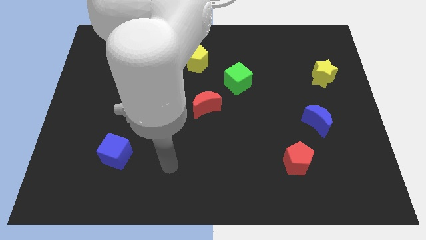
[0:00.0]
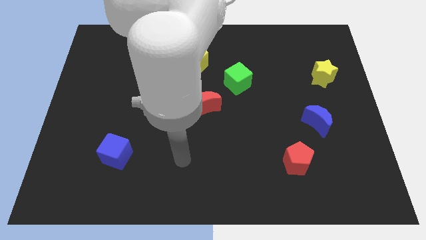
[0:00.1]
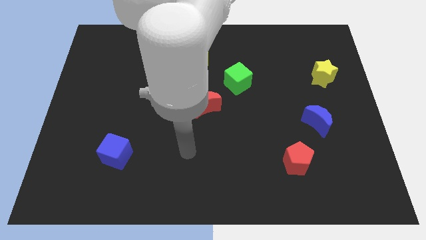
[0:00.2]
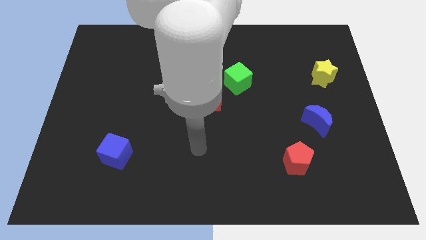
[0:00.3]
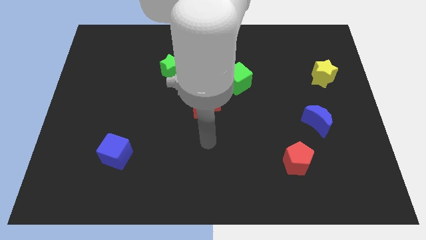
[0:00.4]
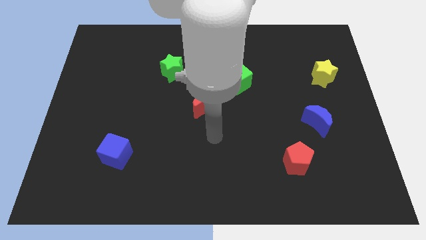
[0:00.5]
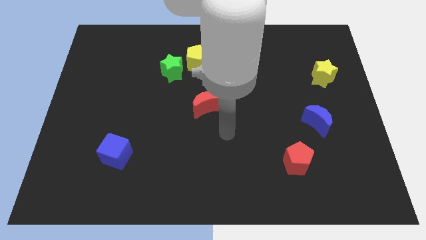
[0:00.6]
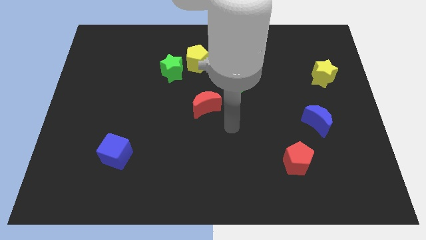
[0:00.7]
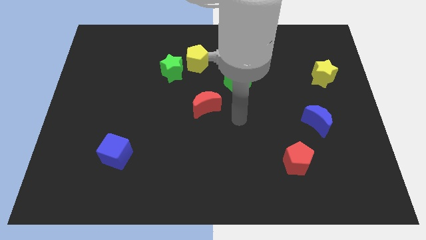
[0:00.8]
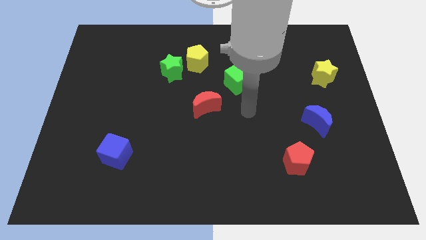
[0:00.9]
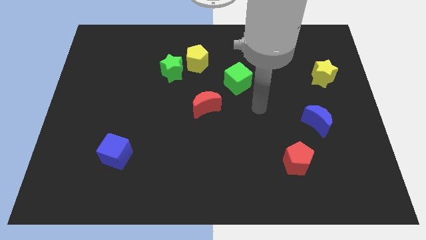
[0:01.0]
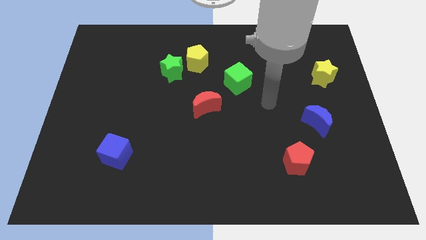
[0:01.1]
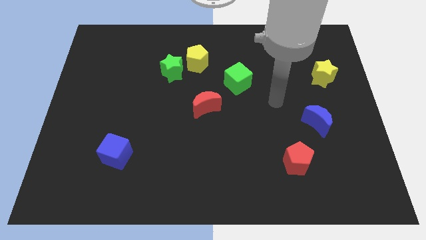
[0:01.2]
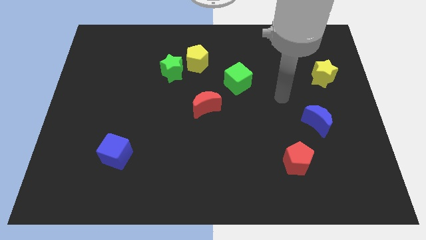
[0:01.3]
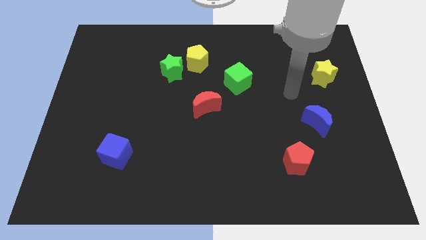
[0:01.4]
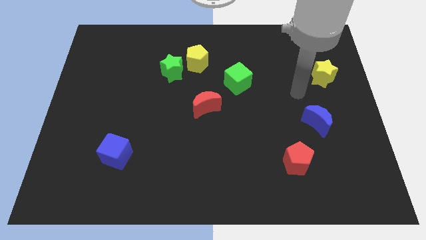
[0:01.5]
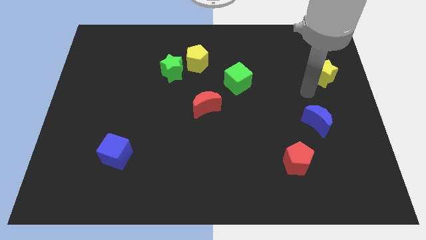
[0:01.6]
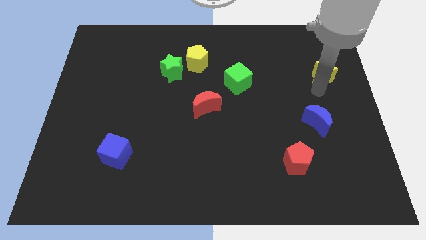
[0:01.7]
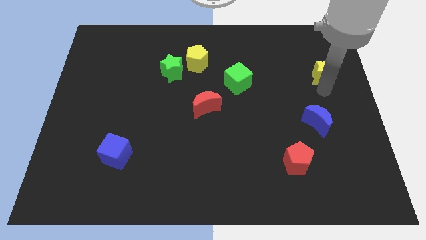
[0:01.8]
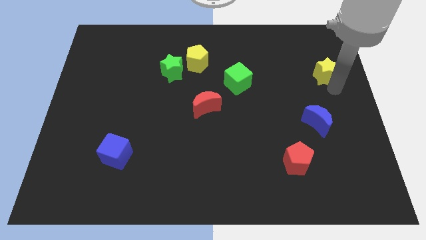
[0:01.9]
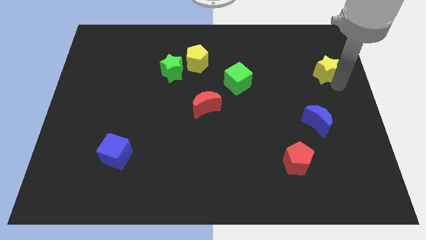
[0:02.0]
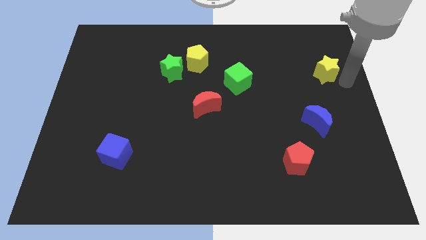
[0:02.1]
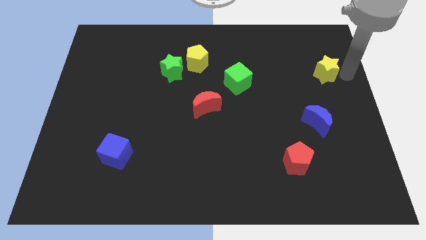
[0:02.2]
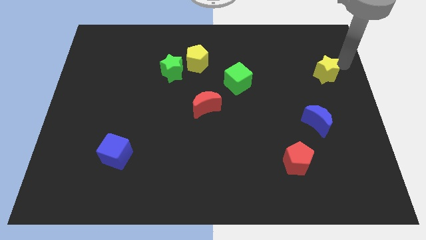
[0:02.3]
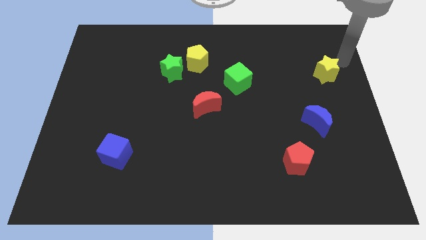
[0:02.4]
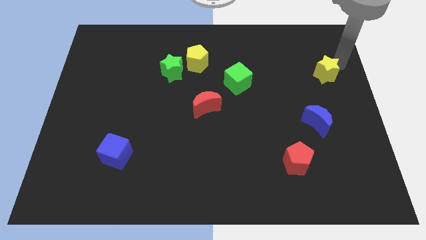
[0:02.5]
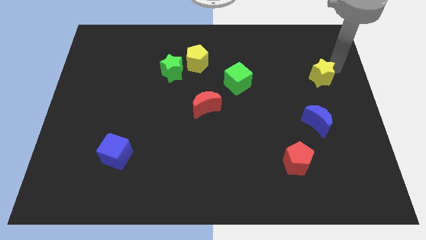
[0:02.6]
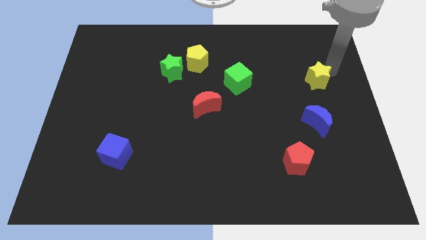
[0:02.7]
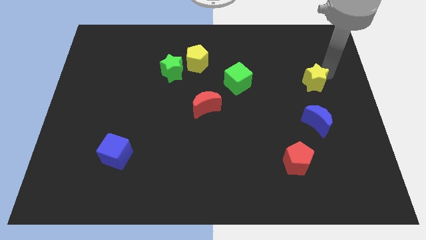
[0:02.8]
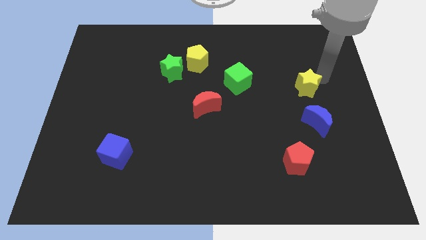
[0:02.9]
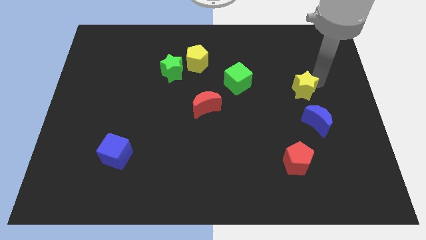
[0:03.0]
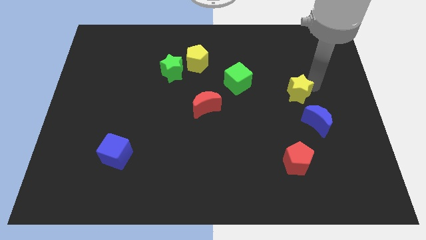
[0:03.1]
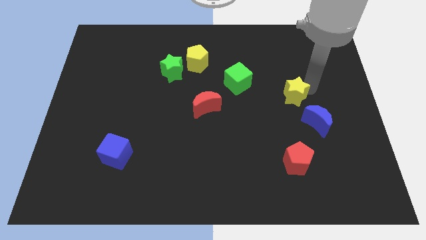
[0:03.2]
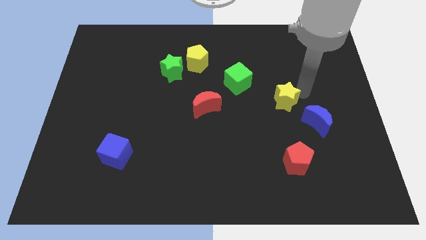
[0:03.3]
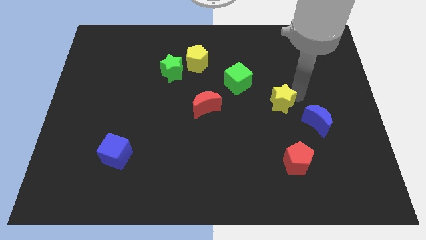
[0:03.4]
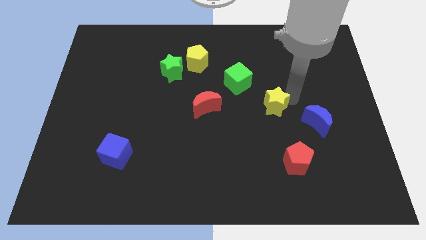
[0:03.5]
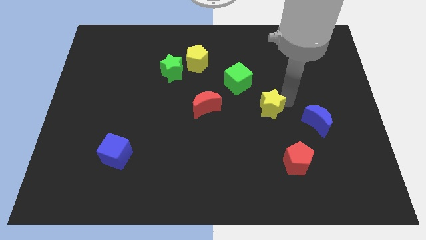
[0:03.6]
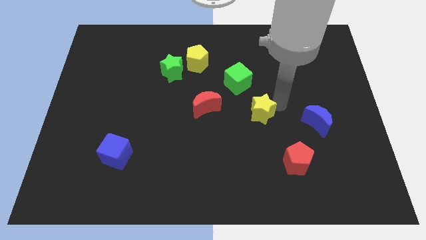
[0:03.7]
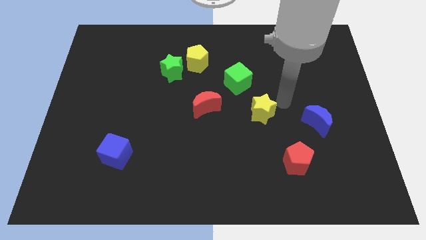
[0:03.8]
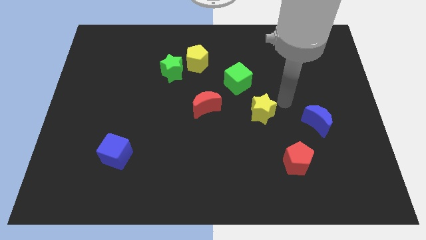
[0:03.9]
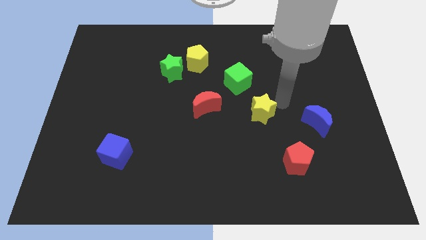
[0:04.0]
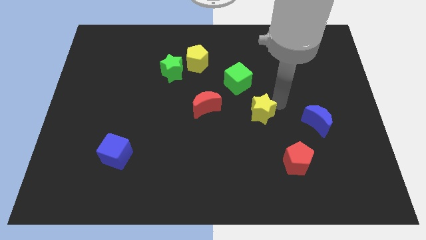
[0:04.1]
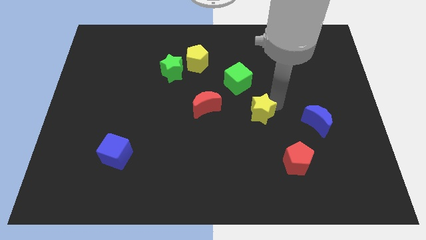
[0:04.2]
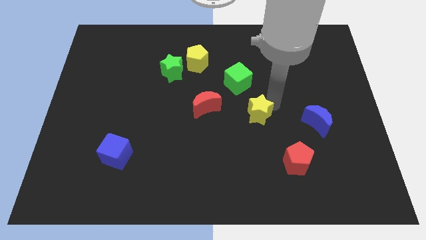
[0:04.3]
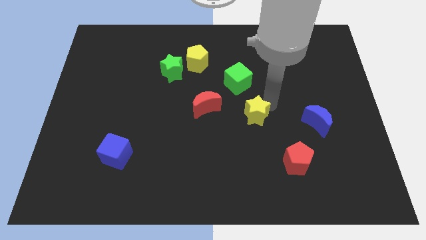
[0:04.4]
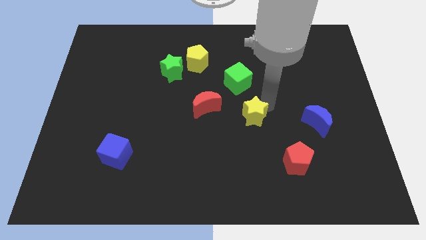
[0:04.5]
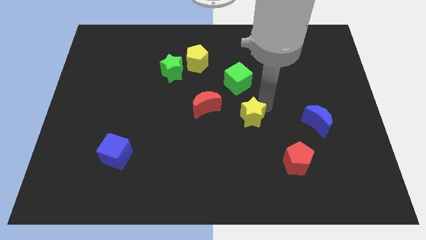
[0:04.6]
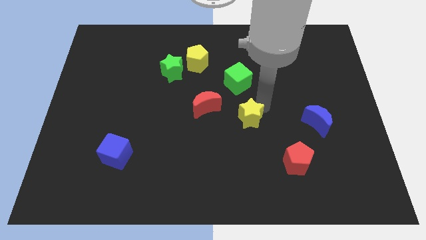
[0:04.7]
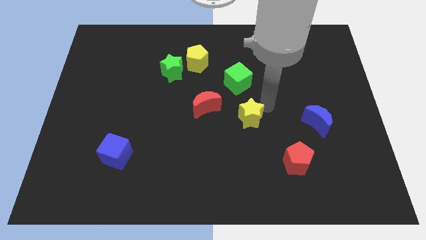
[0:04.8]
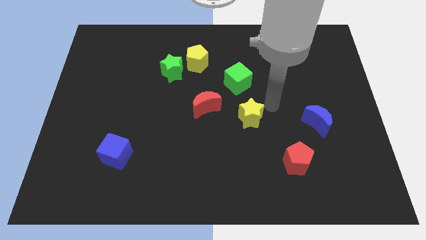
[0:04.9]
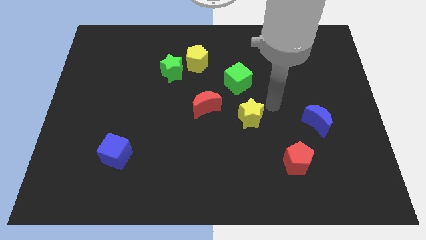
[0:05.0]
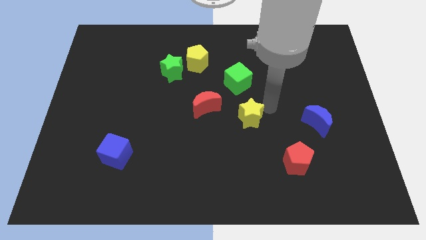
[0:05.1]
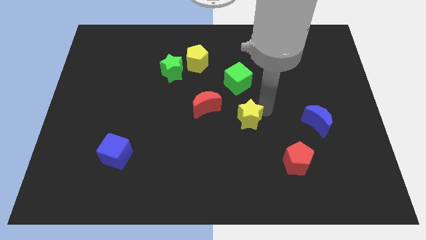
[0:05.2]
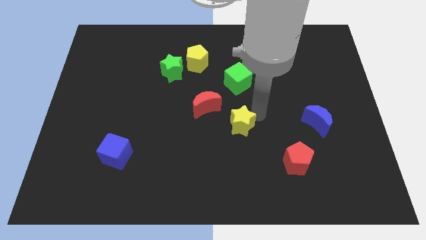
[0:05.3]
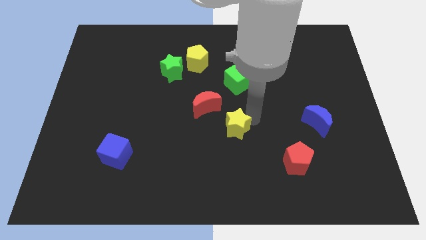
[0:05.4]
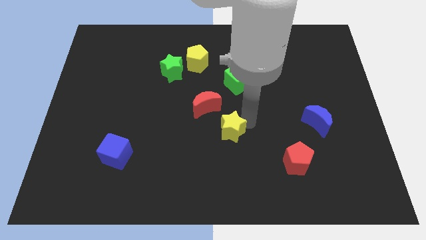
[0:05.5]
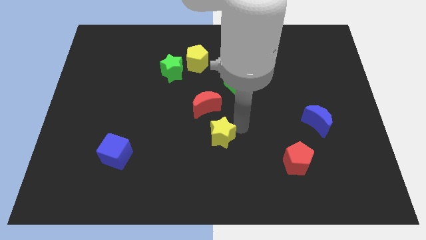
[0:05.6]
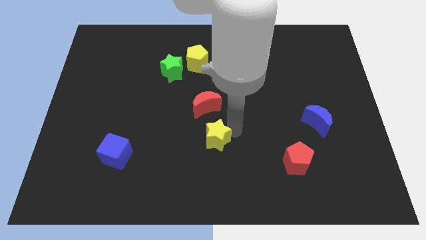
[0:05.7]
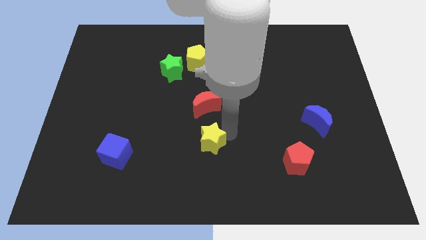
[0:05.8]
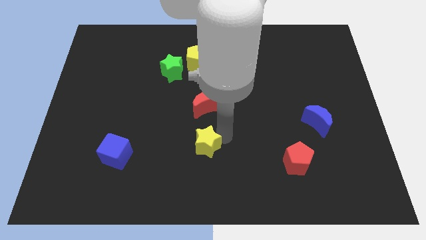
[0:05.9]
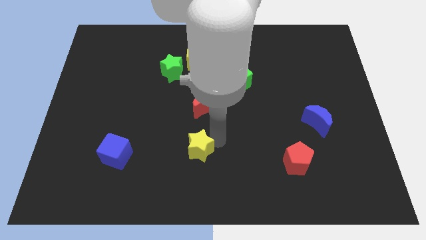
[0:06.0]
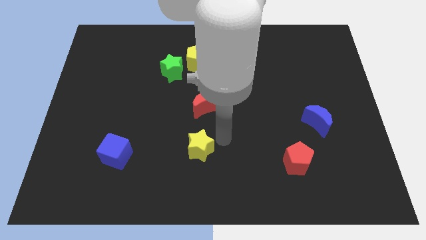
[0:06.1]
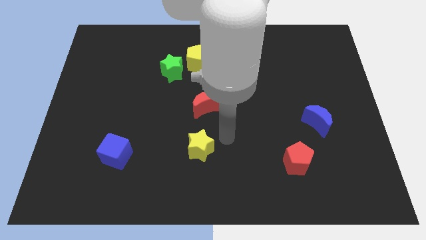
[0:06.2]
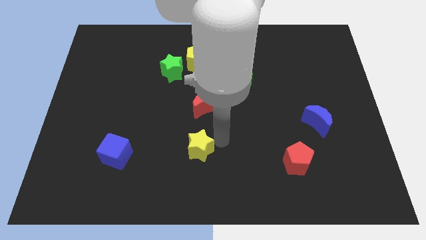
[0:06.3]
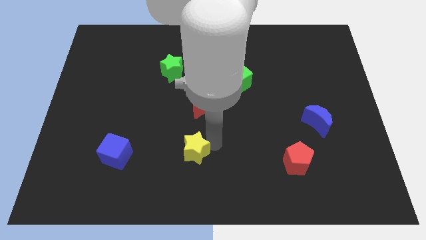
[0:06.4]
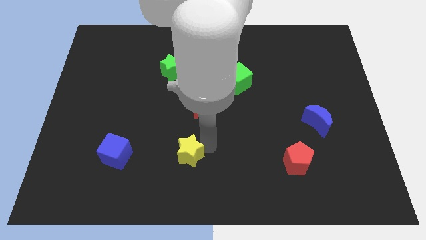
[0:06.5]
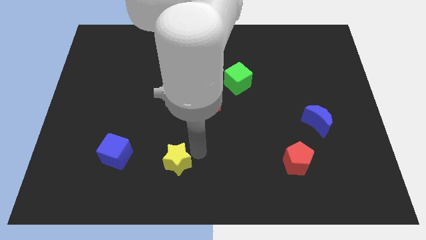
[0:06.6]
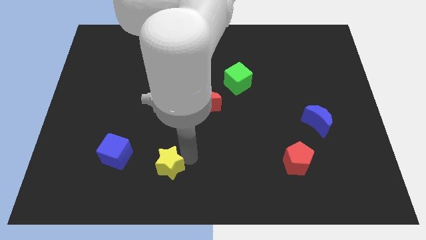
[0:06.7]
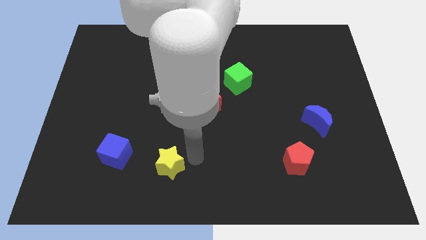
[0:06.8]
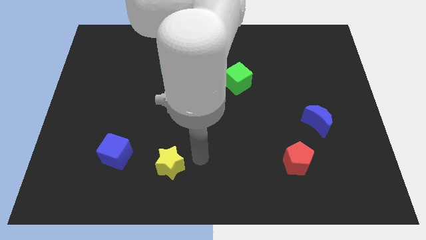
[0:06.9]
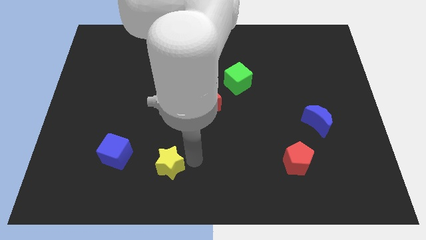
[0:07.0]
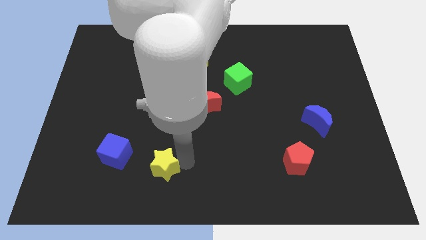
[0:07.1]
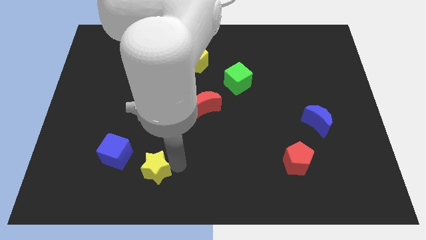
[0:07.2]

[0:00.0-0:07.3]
move the yellow star to the bottom right side of the blue cube
